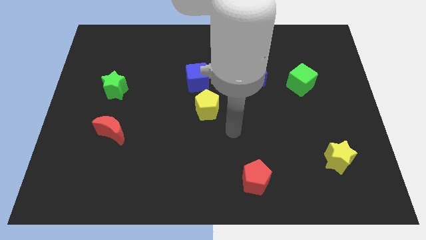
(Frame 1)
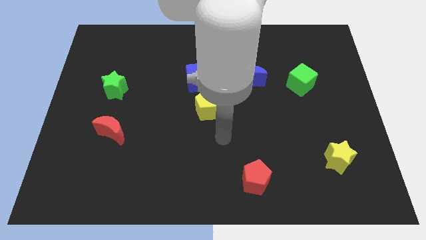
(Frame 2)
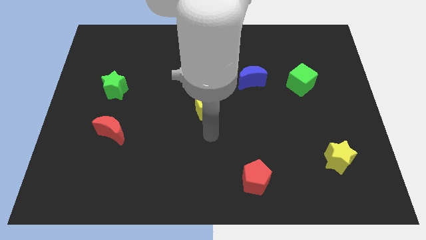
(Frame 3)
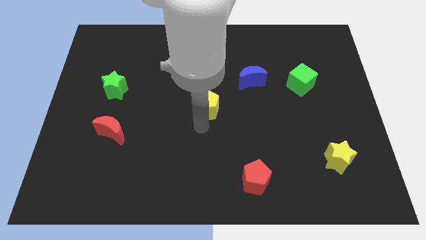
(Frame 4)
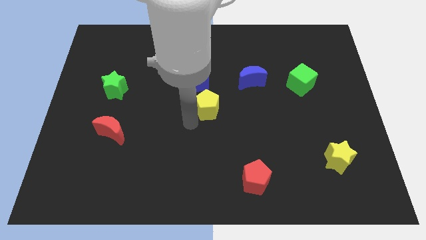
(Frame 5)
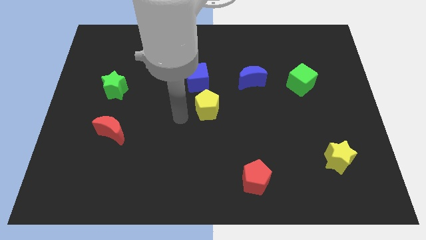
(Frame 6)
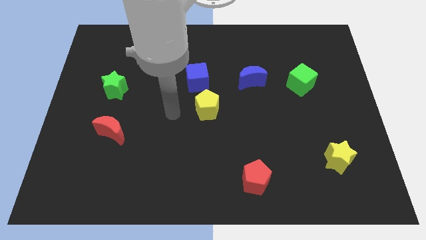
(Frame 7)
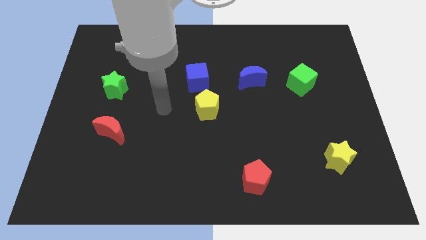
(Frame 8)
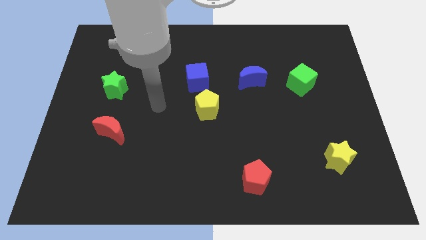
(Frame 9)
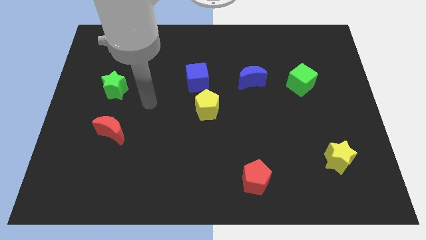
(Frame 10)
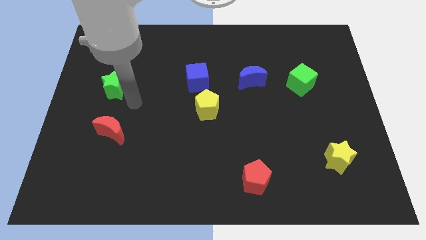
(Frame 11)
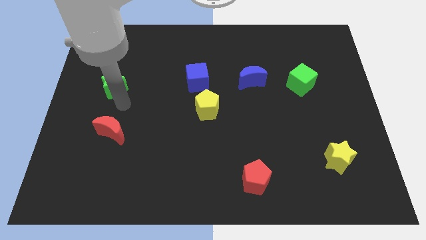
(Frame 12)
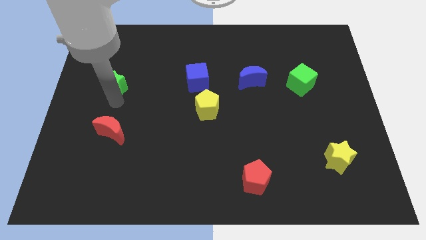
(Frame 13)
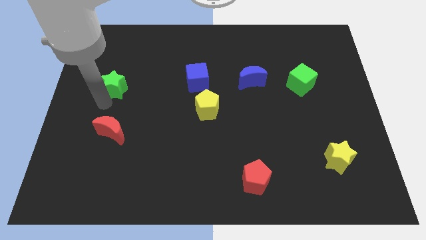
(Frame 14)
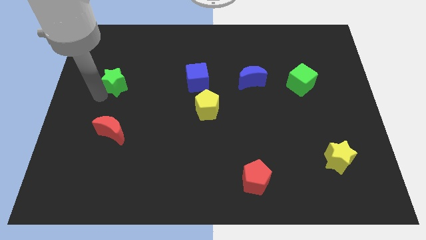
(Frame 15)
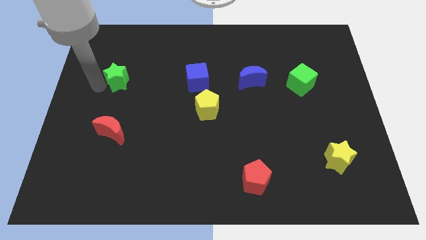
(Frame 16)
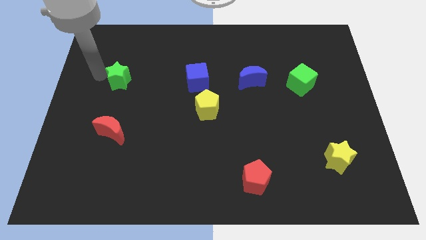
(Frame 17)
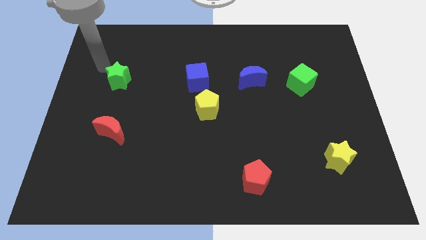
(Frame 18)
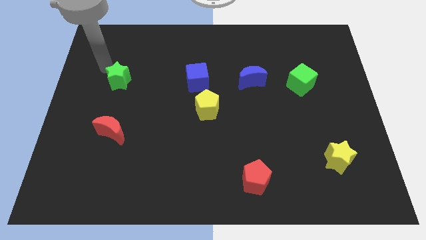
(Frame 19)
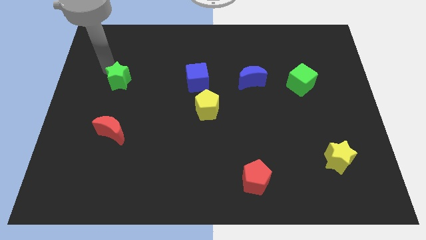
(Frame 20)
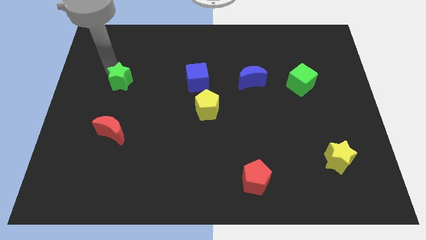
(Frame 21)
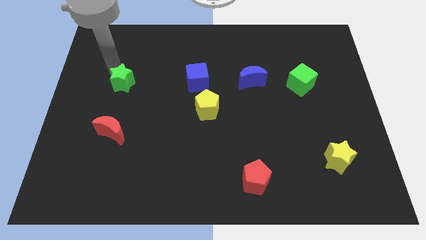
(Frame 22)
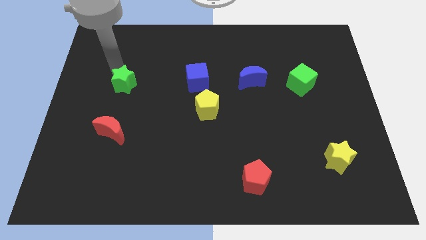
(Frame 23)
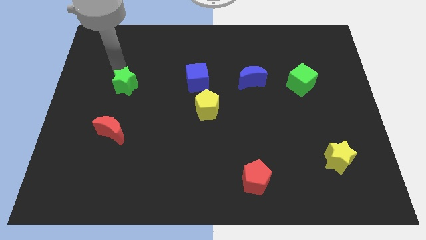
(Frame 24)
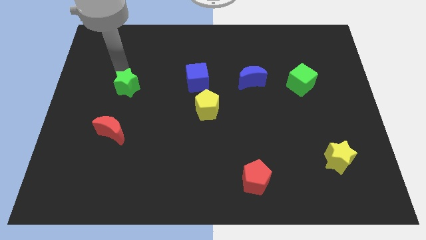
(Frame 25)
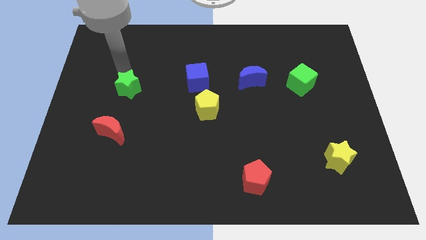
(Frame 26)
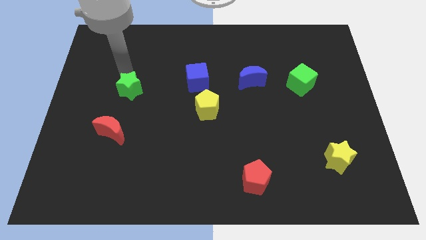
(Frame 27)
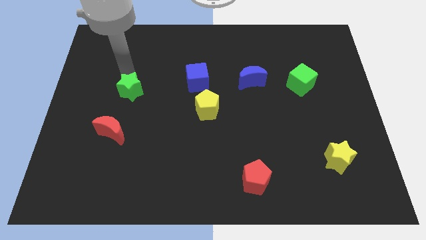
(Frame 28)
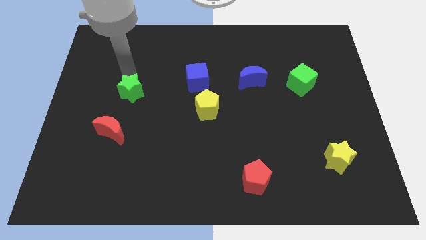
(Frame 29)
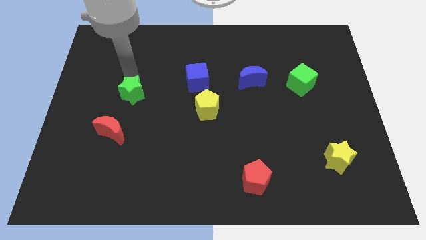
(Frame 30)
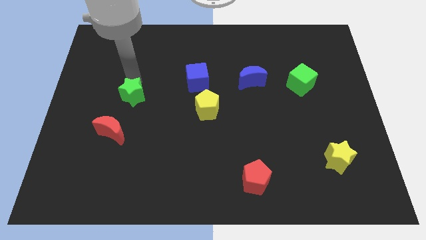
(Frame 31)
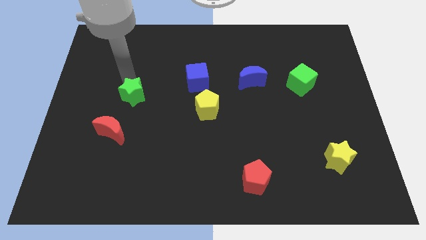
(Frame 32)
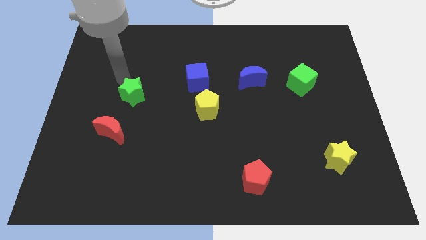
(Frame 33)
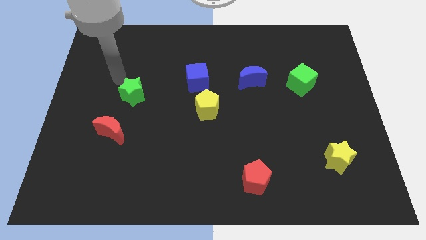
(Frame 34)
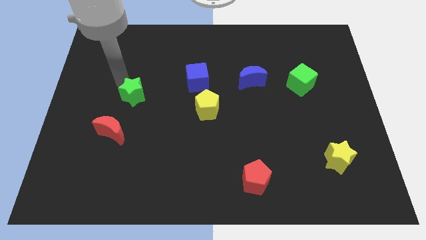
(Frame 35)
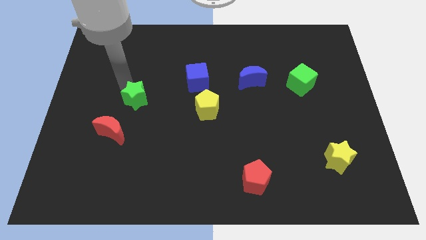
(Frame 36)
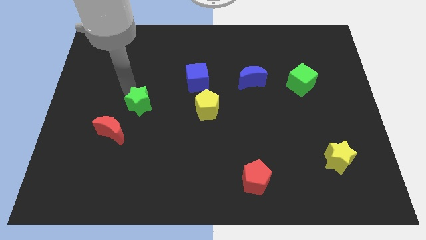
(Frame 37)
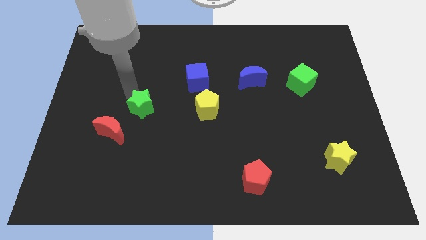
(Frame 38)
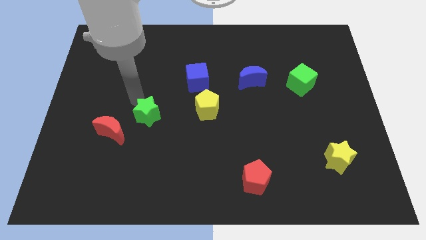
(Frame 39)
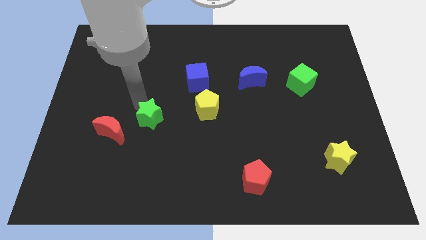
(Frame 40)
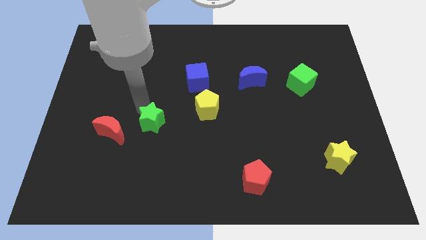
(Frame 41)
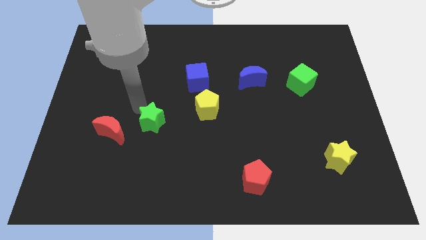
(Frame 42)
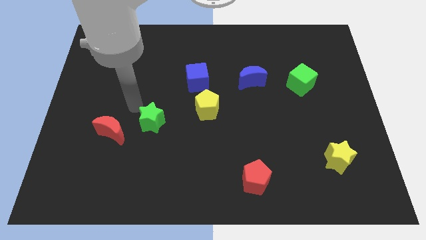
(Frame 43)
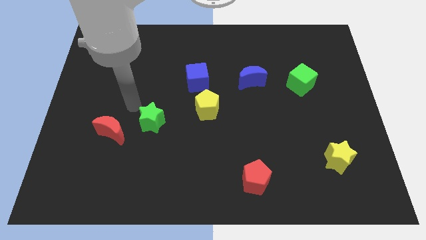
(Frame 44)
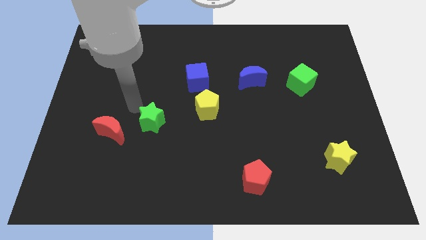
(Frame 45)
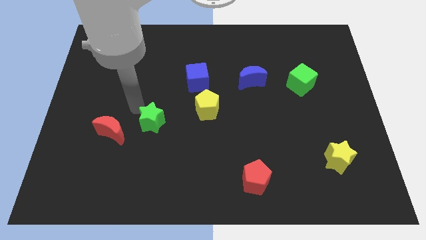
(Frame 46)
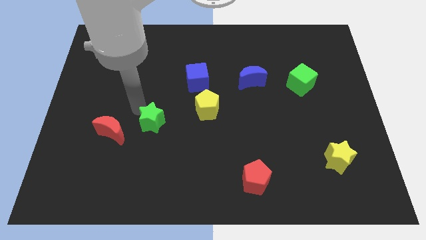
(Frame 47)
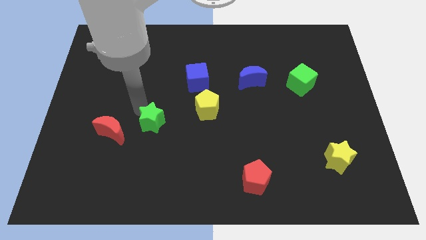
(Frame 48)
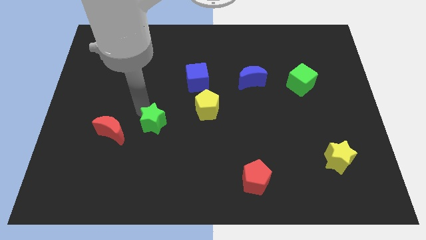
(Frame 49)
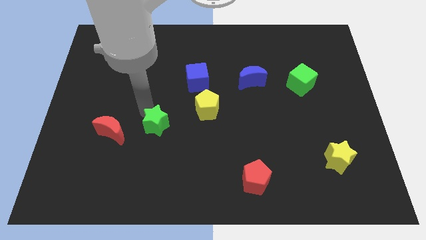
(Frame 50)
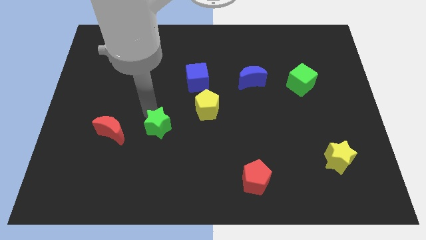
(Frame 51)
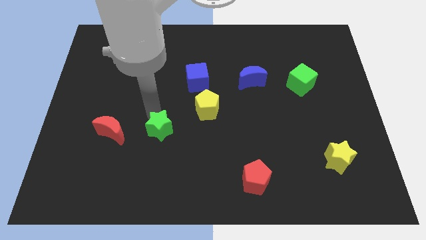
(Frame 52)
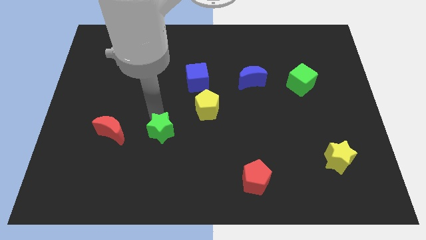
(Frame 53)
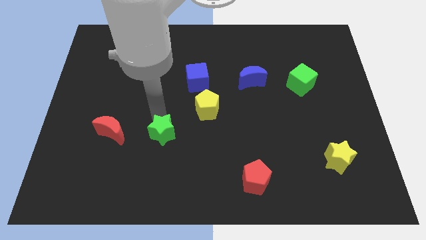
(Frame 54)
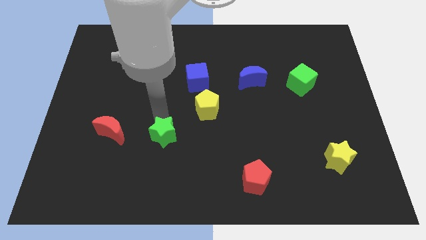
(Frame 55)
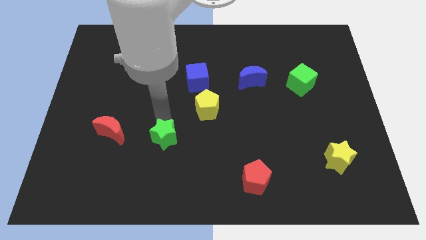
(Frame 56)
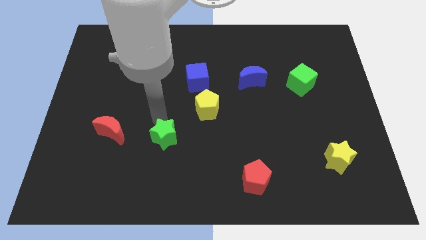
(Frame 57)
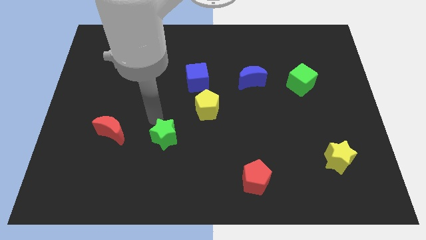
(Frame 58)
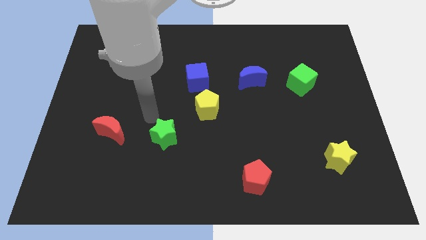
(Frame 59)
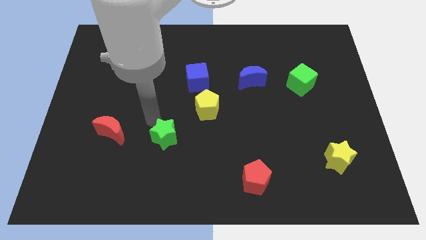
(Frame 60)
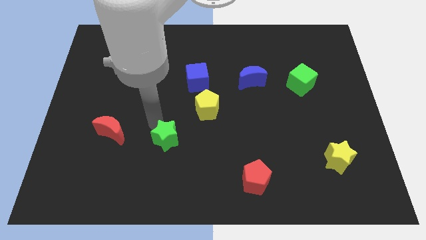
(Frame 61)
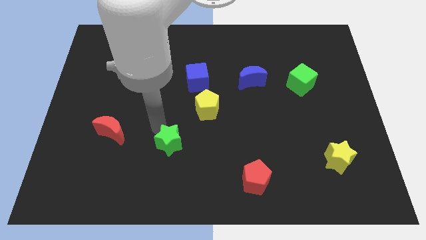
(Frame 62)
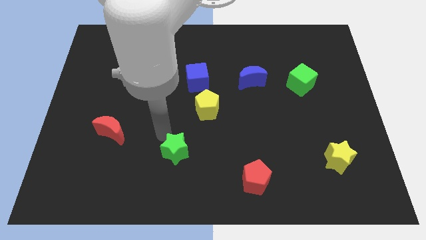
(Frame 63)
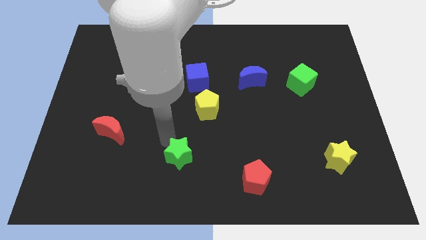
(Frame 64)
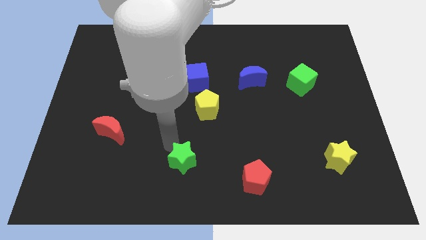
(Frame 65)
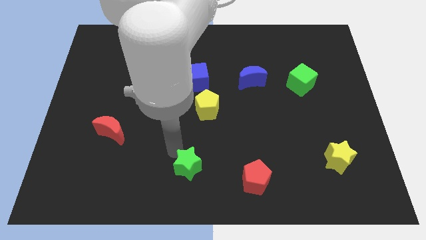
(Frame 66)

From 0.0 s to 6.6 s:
slide the green star to the left of the red pentagon

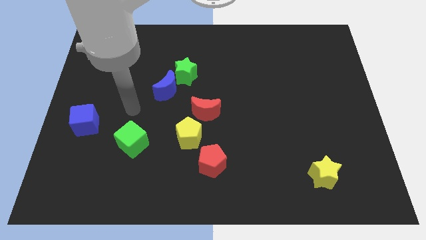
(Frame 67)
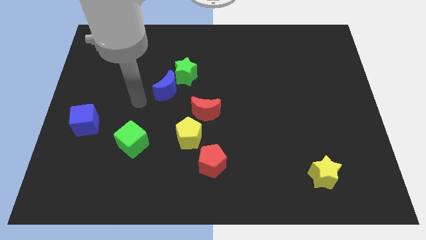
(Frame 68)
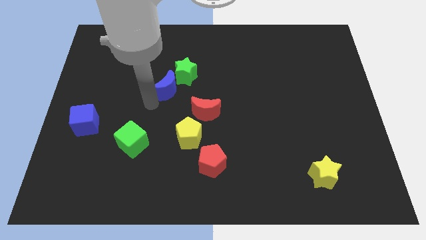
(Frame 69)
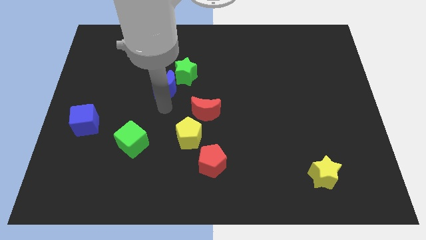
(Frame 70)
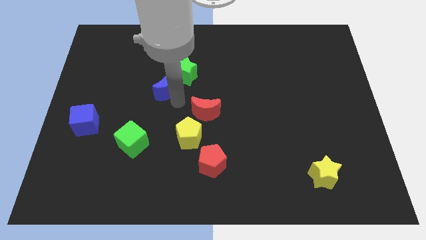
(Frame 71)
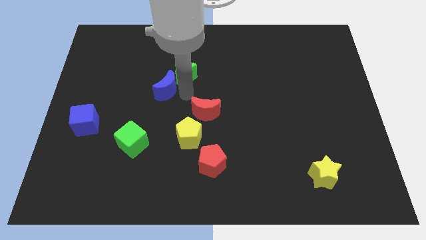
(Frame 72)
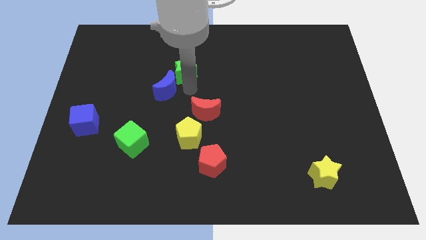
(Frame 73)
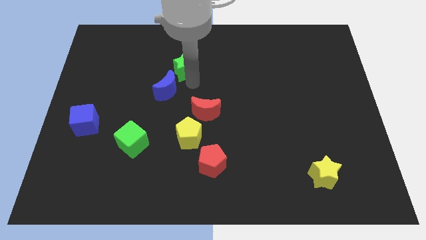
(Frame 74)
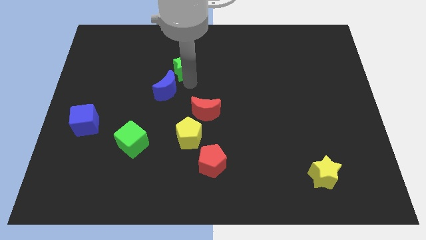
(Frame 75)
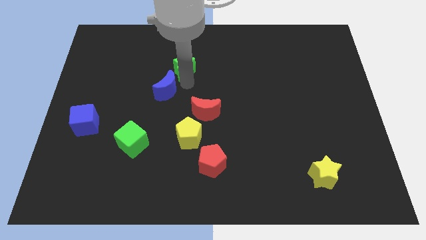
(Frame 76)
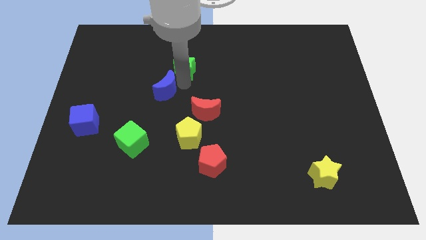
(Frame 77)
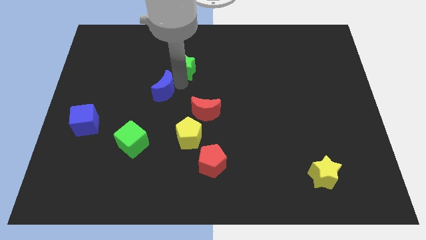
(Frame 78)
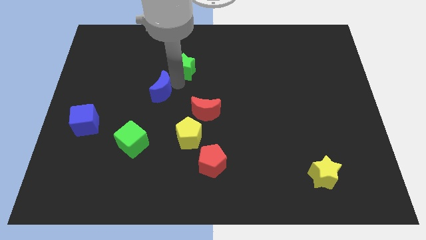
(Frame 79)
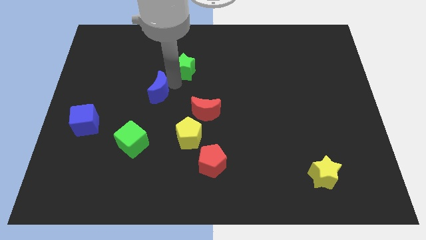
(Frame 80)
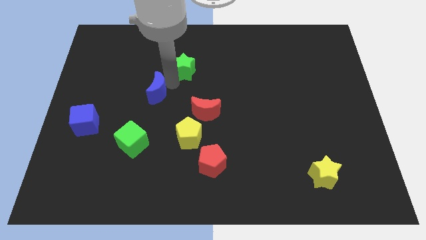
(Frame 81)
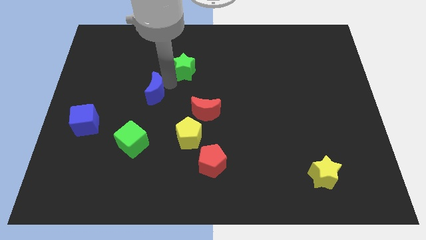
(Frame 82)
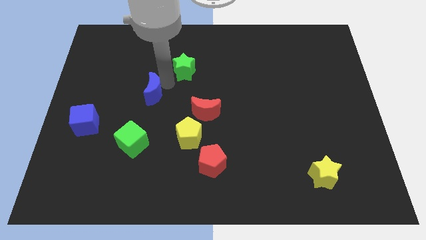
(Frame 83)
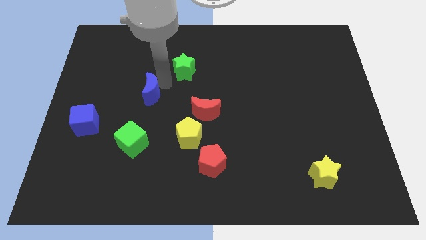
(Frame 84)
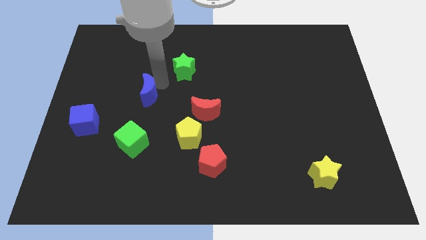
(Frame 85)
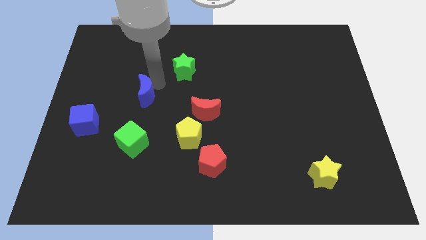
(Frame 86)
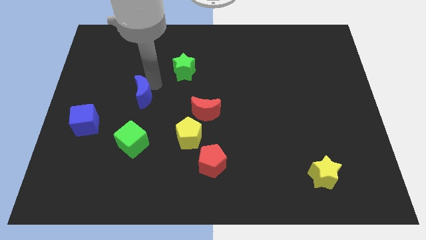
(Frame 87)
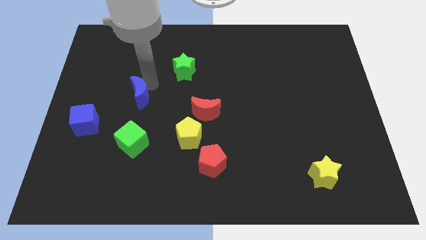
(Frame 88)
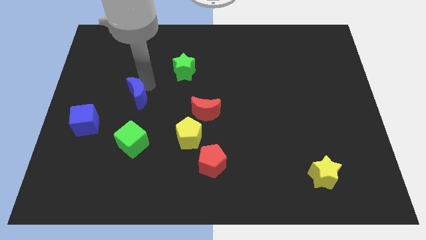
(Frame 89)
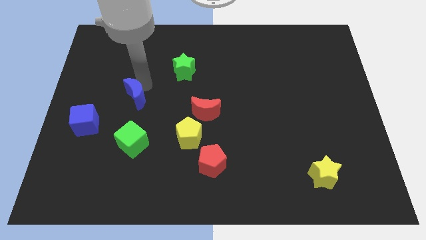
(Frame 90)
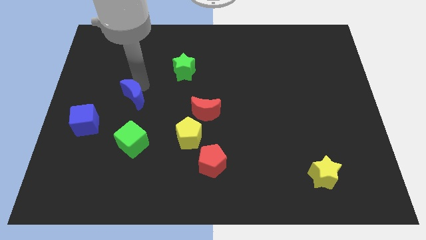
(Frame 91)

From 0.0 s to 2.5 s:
push the blue moon diagonally up and to the right of the blue cube
